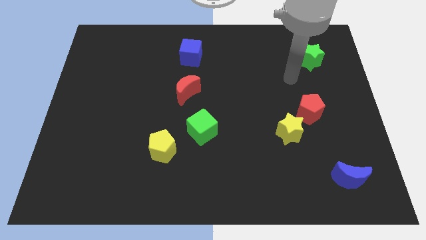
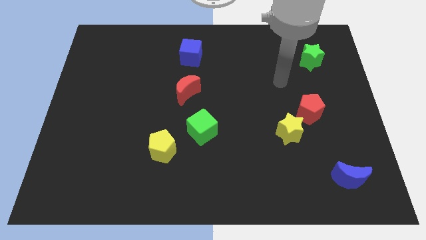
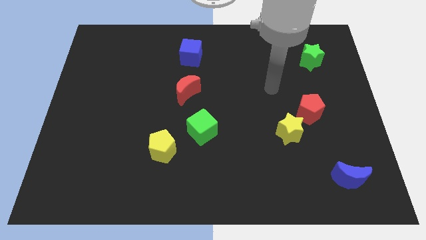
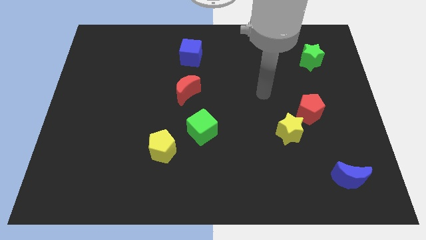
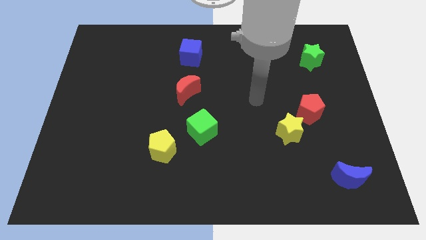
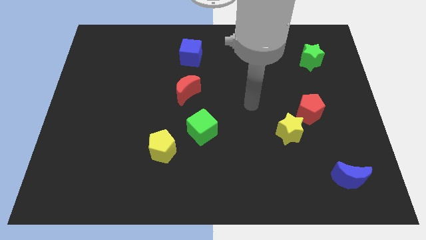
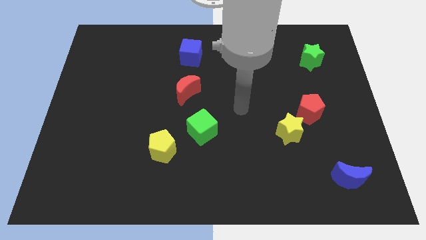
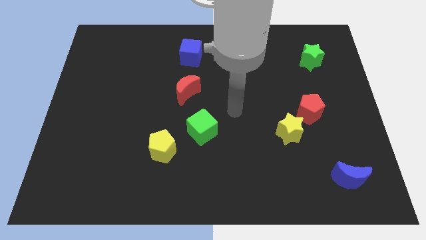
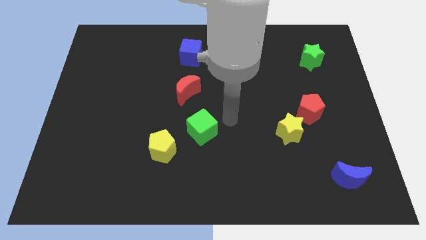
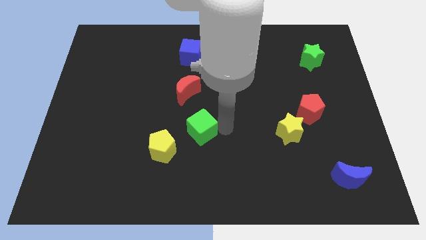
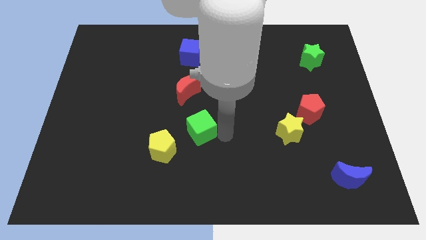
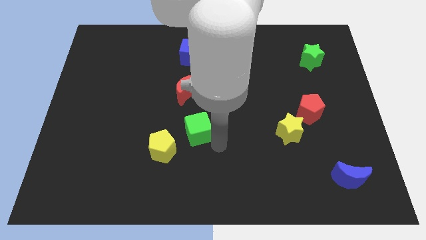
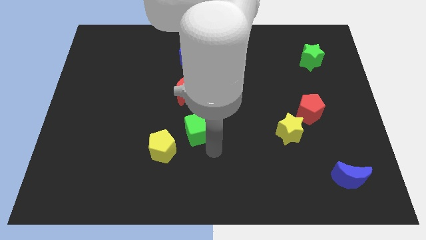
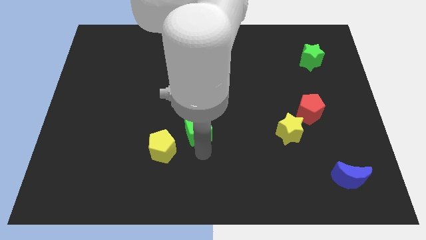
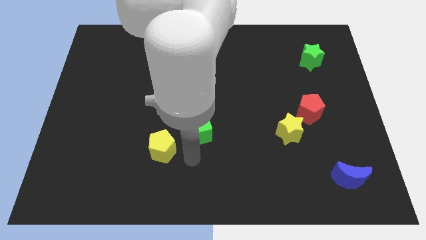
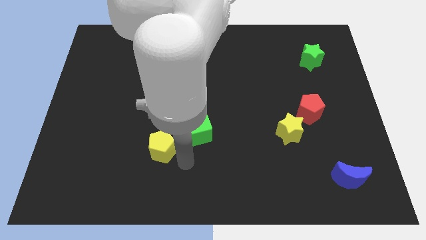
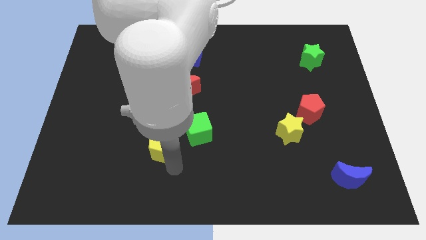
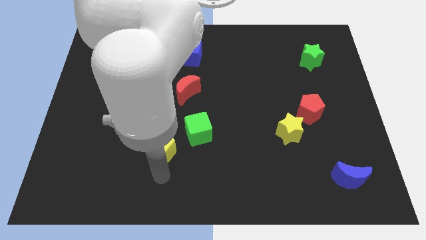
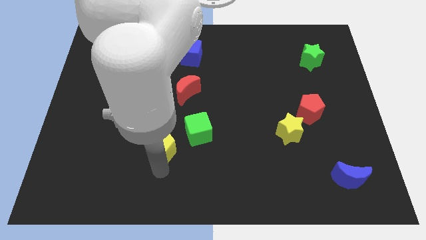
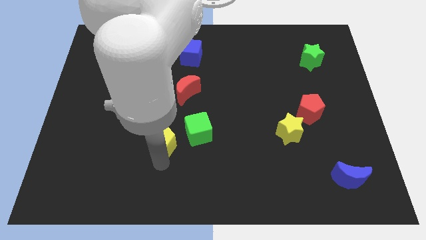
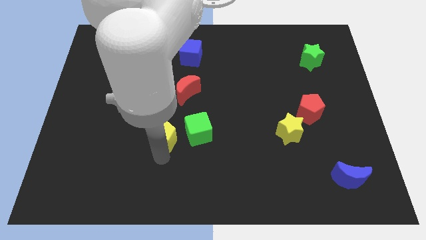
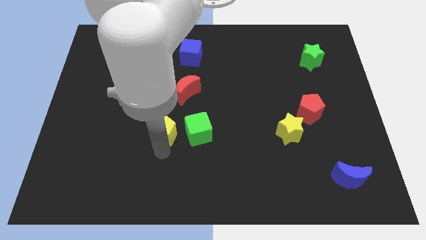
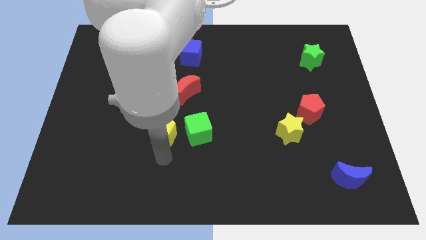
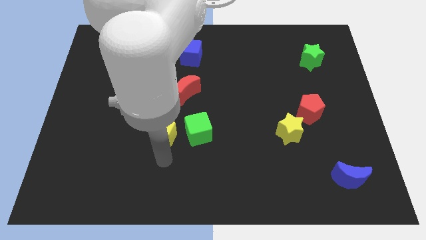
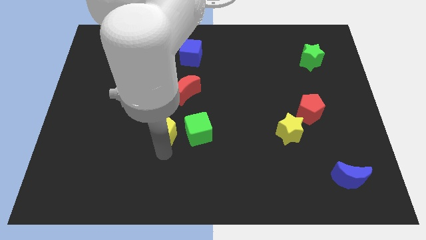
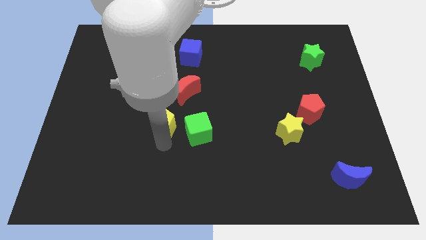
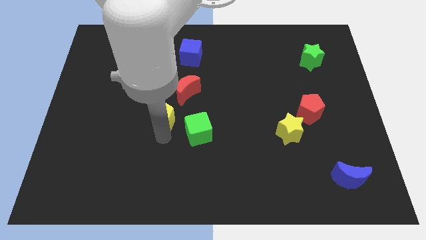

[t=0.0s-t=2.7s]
push the yellow pentagon a bit up

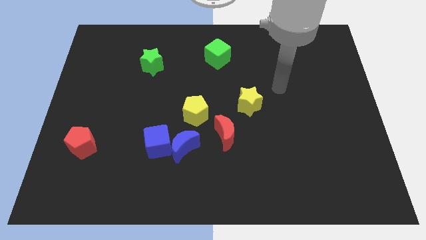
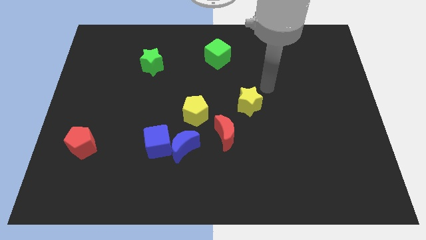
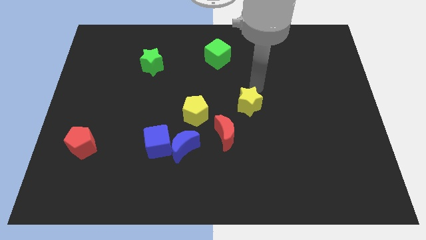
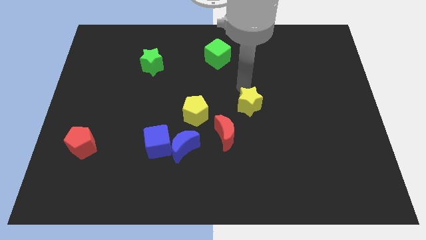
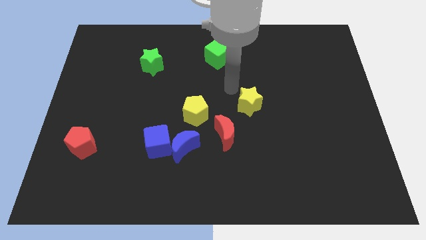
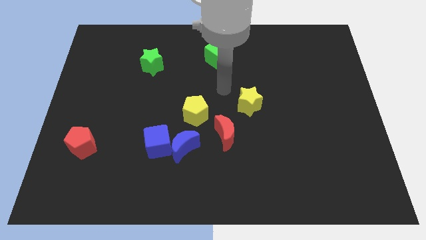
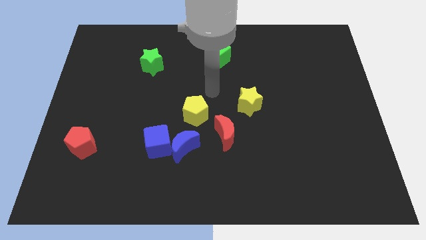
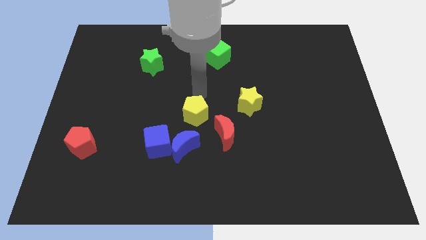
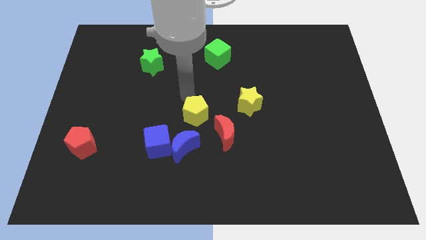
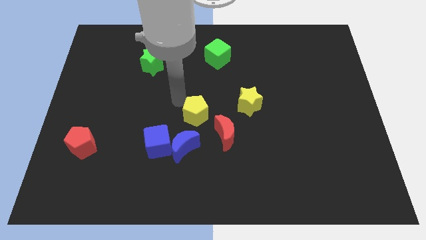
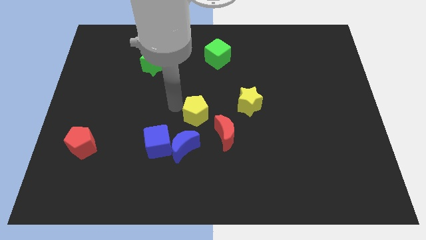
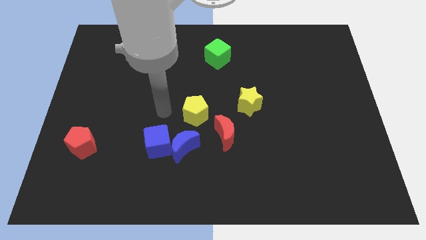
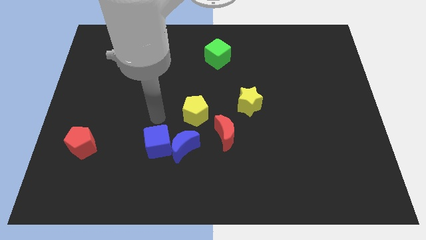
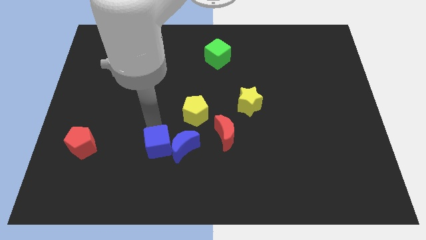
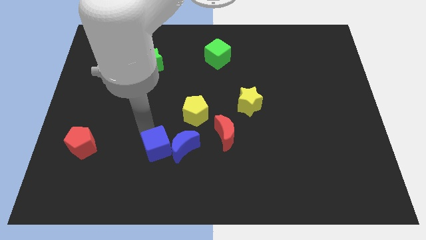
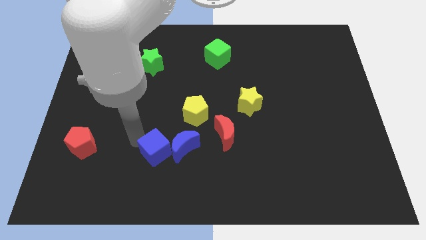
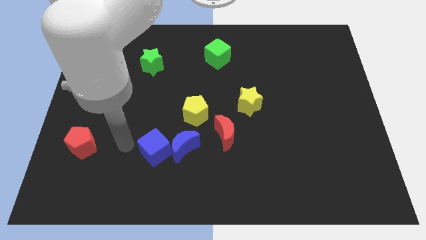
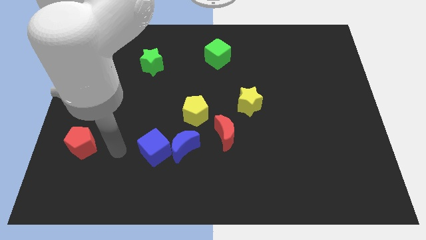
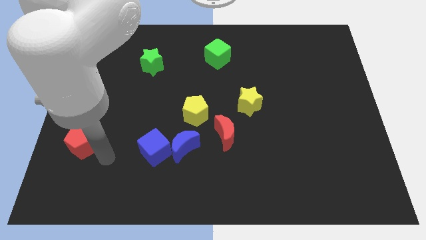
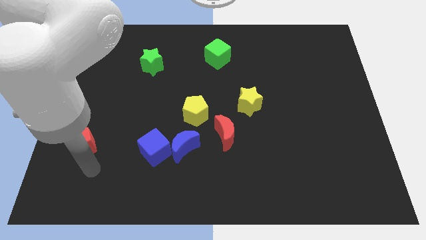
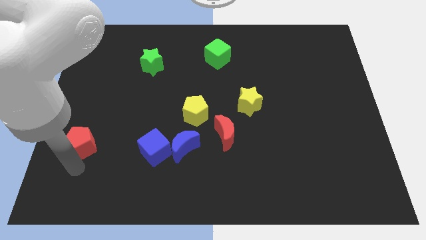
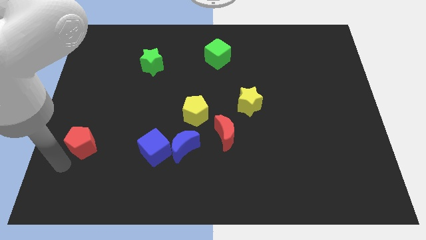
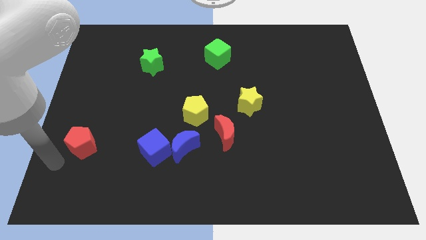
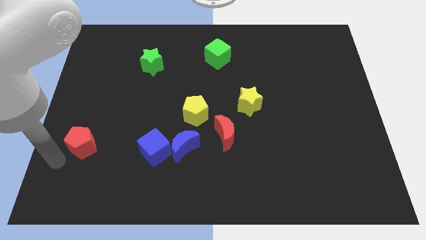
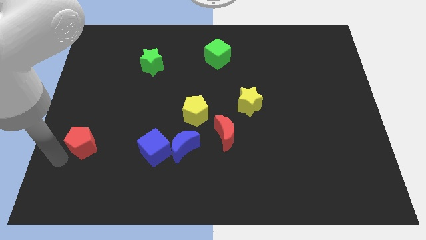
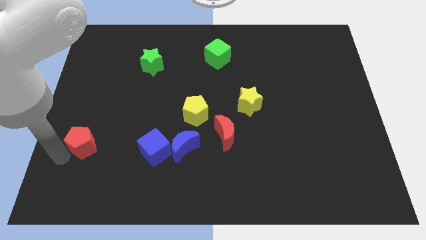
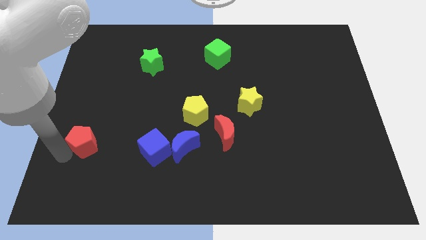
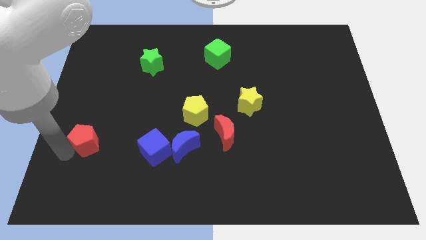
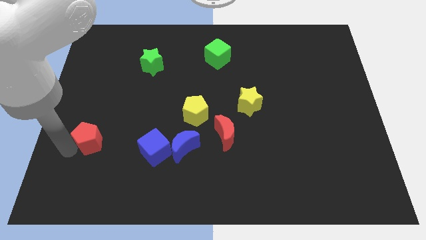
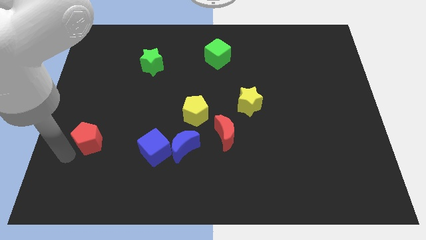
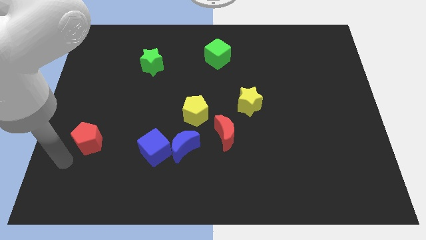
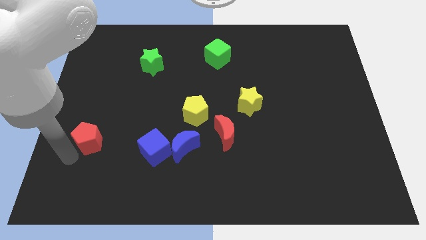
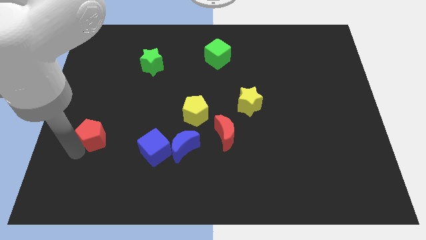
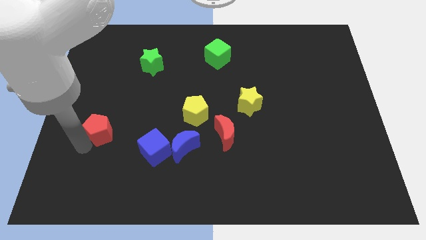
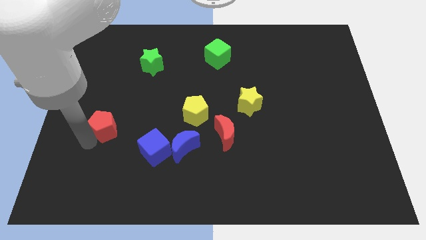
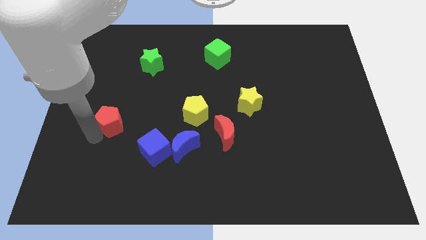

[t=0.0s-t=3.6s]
push the red pentagon diagonally upwards and right a little

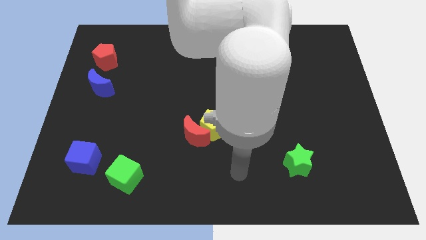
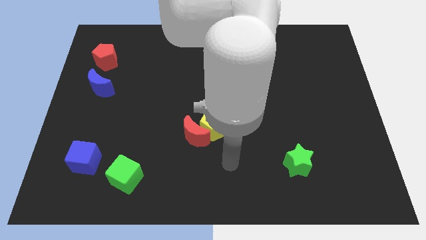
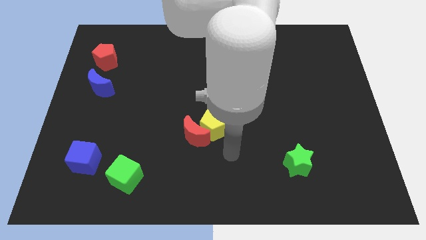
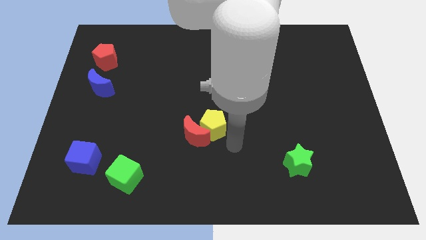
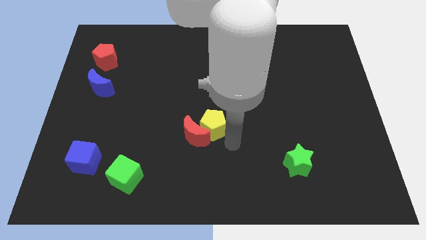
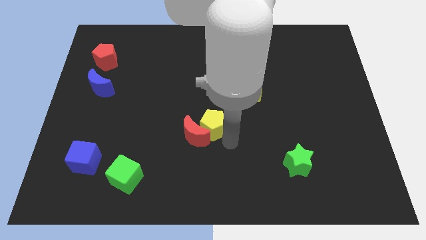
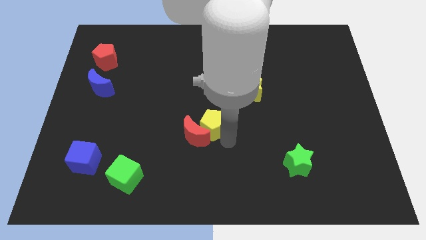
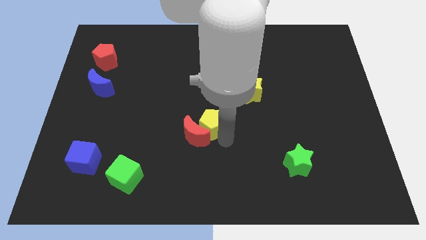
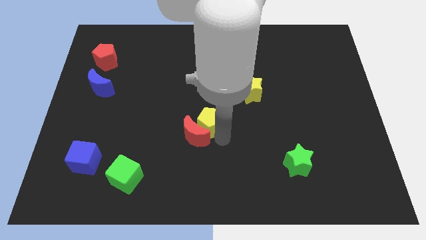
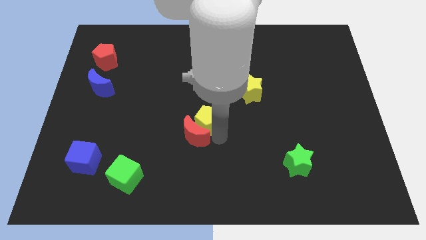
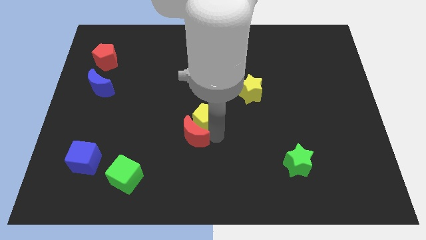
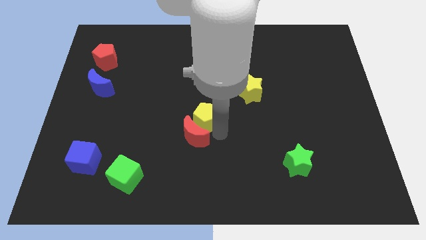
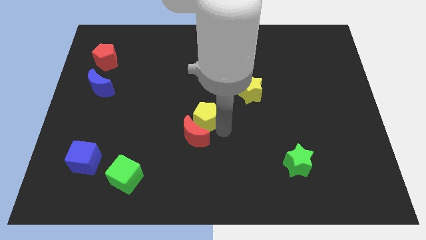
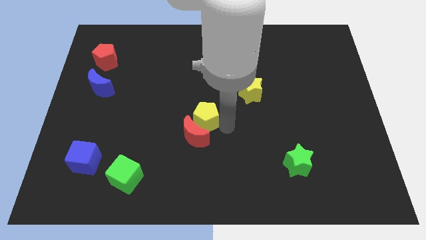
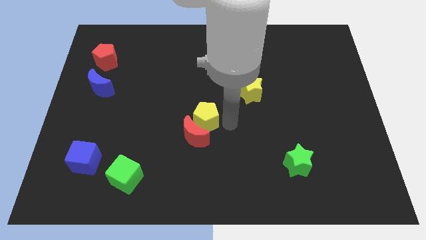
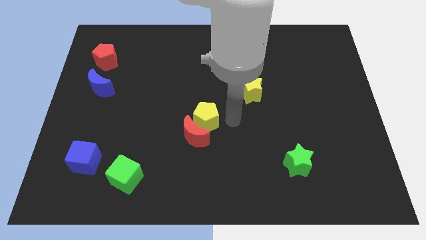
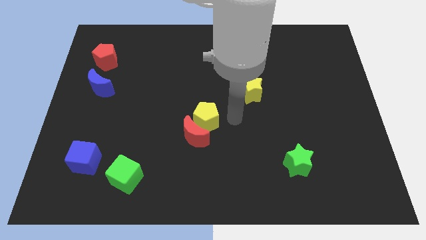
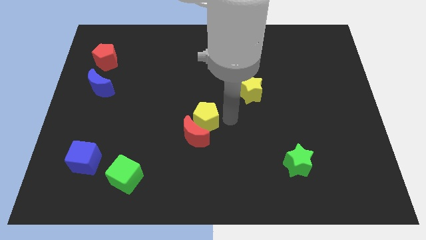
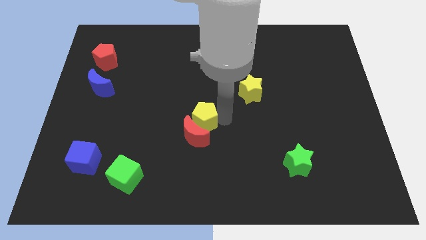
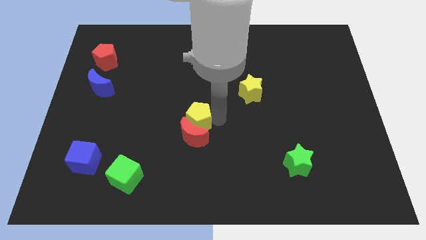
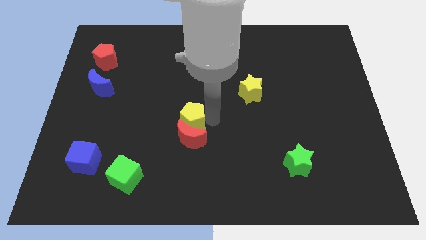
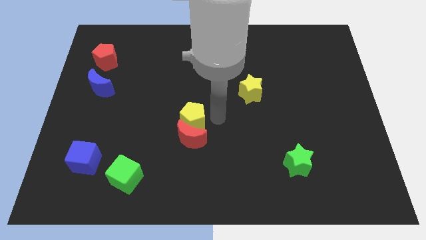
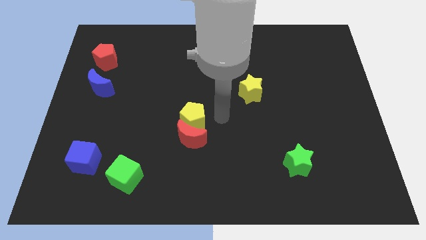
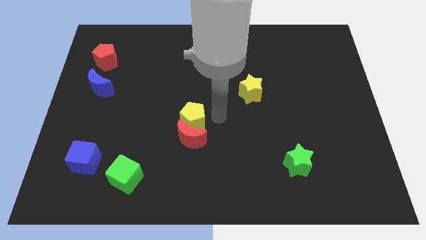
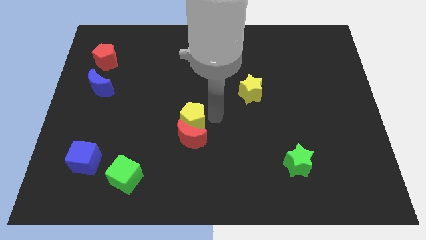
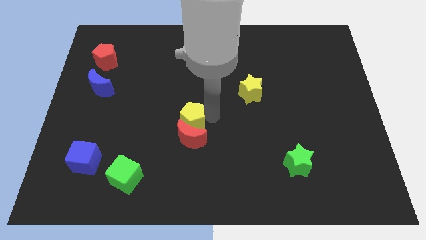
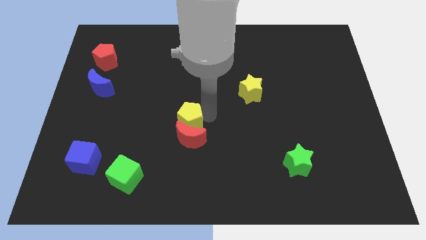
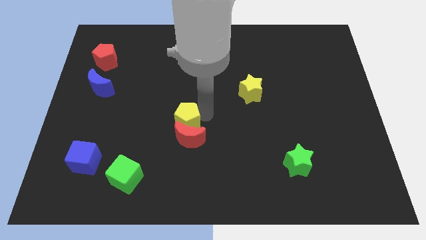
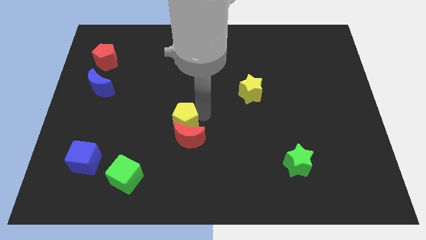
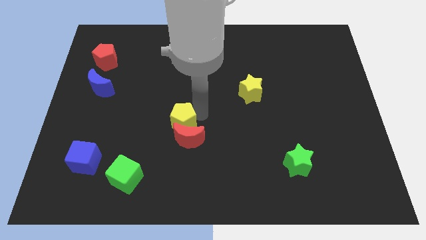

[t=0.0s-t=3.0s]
move the yellow pentagon left a little bit
